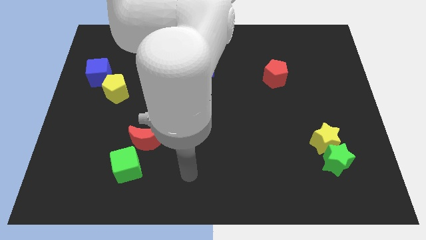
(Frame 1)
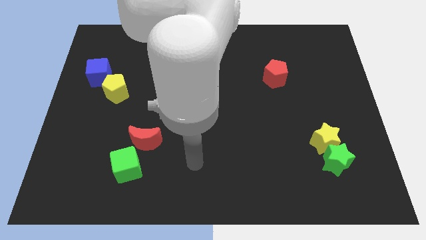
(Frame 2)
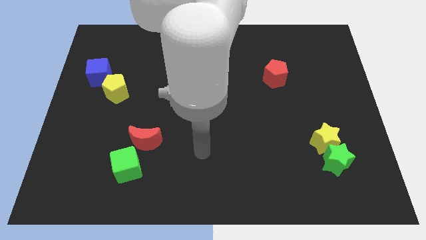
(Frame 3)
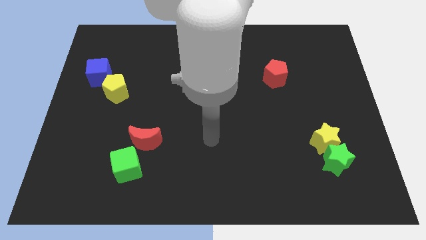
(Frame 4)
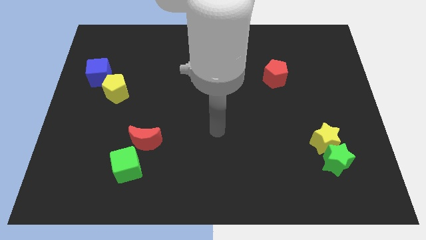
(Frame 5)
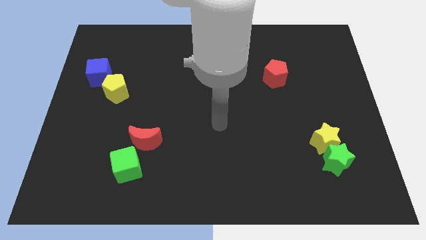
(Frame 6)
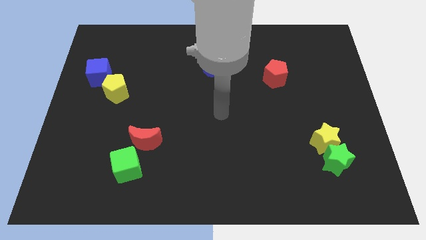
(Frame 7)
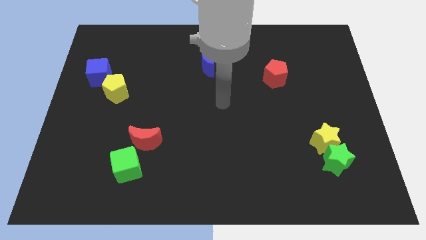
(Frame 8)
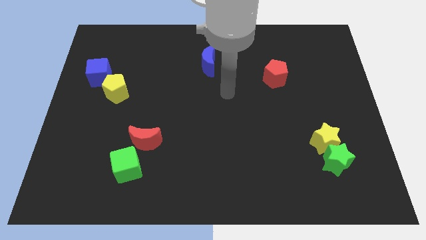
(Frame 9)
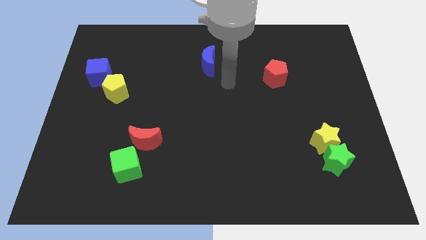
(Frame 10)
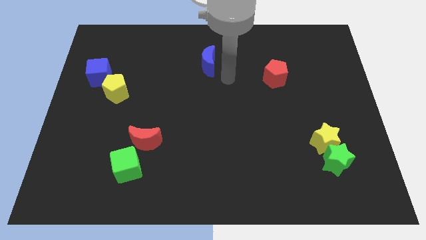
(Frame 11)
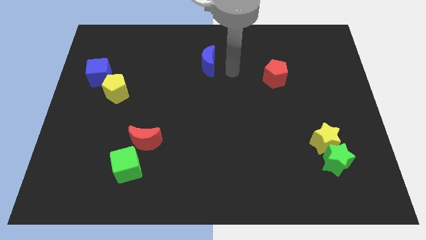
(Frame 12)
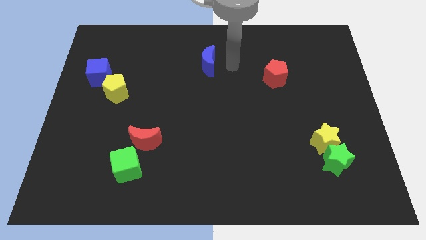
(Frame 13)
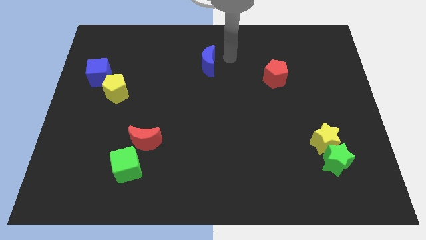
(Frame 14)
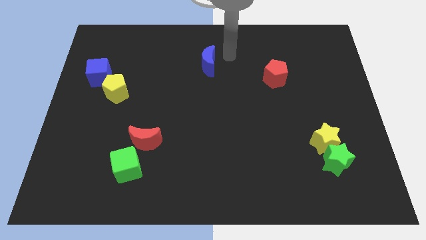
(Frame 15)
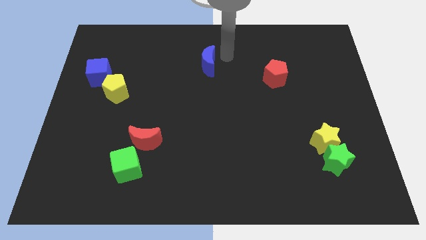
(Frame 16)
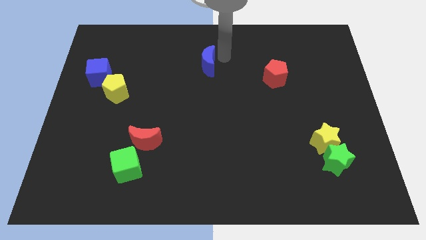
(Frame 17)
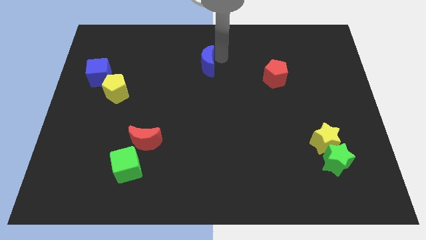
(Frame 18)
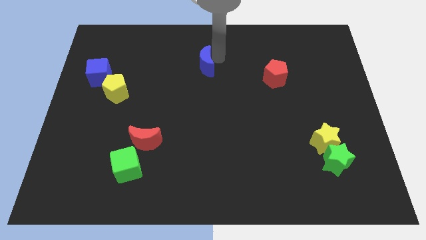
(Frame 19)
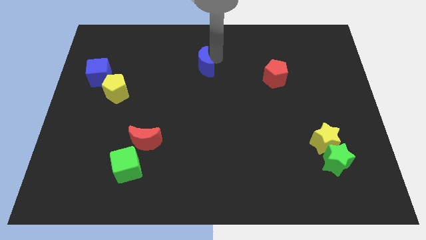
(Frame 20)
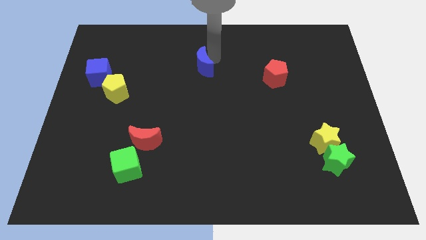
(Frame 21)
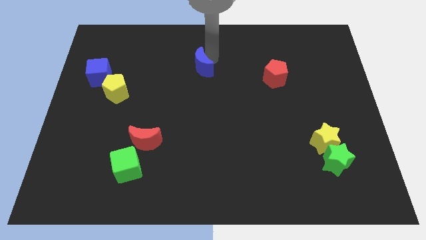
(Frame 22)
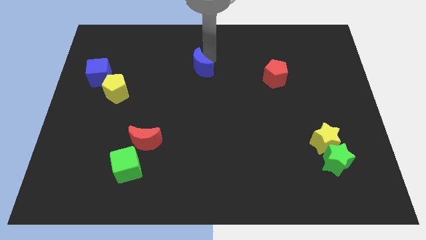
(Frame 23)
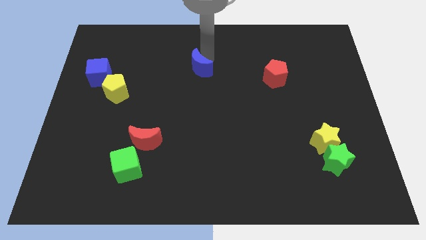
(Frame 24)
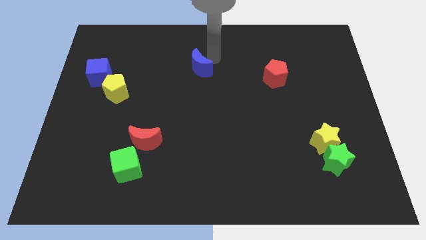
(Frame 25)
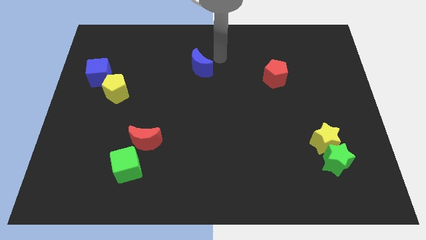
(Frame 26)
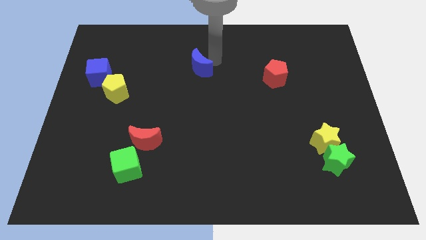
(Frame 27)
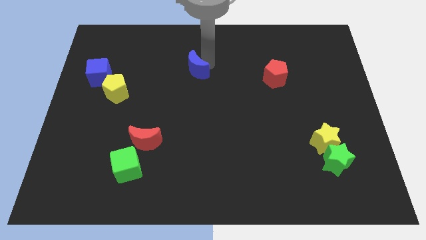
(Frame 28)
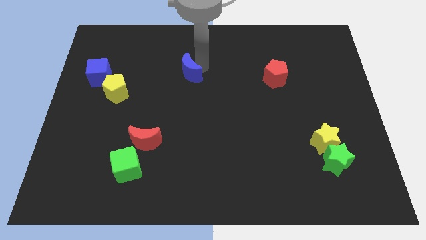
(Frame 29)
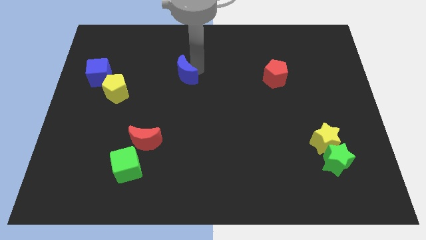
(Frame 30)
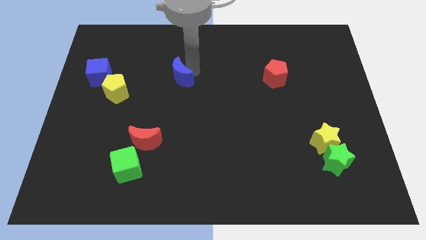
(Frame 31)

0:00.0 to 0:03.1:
slide the blue moon a bit downwards and then to the left

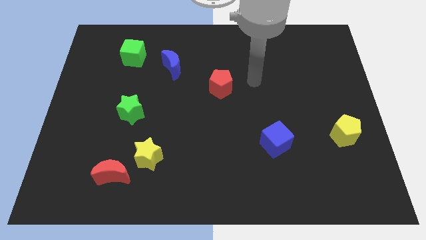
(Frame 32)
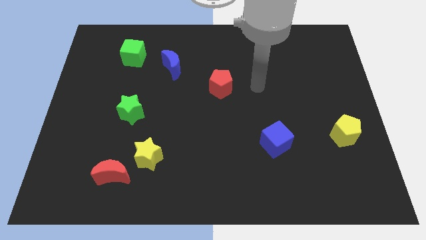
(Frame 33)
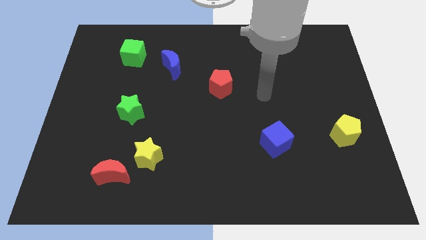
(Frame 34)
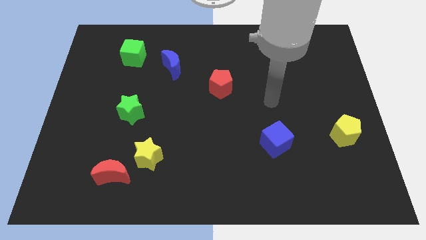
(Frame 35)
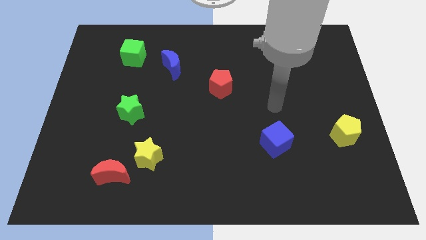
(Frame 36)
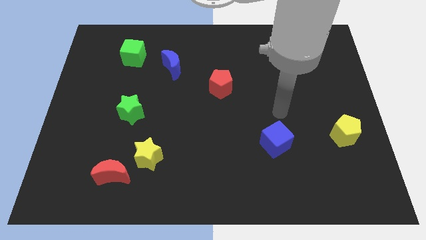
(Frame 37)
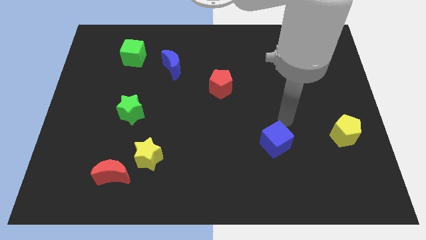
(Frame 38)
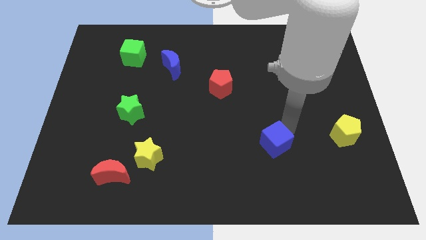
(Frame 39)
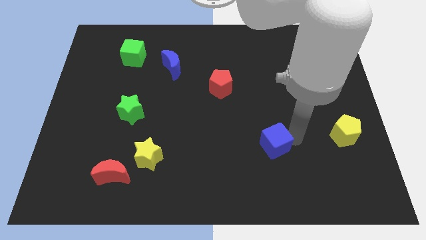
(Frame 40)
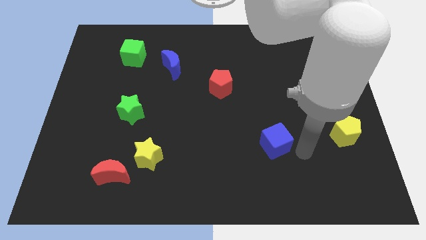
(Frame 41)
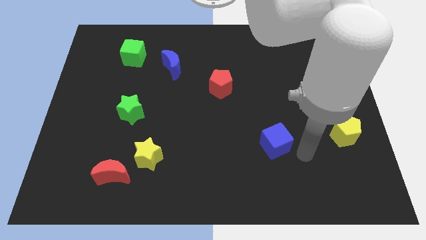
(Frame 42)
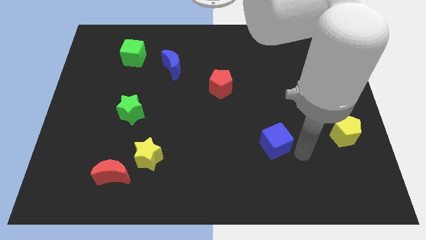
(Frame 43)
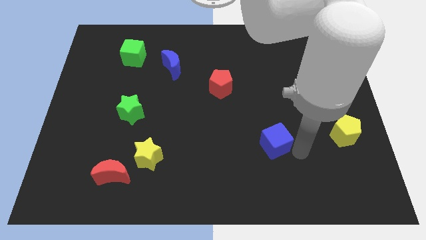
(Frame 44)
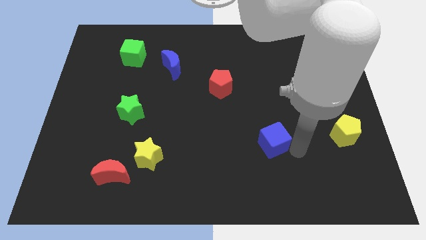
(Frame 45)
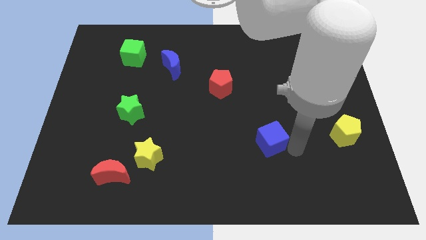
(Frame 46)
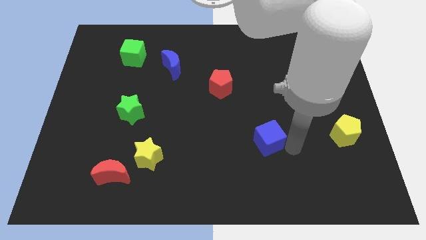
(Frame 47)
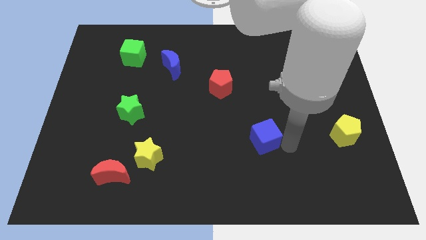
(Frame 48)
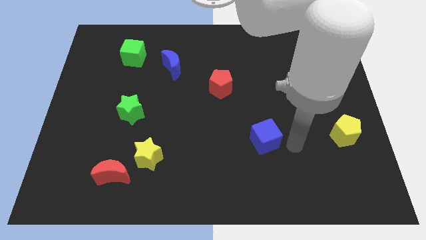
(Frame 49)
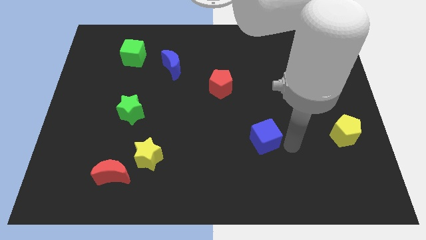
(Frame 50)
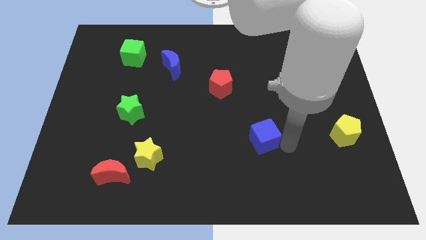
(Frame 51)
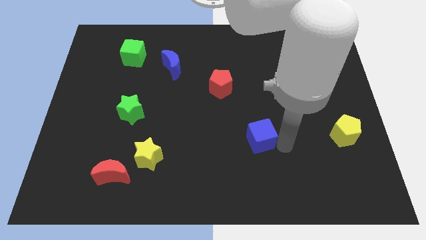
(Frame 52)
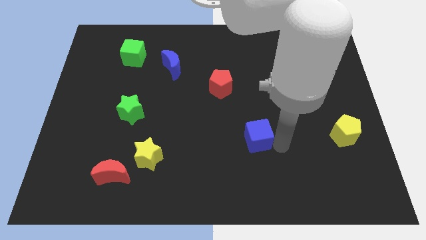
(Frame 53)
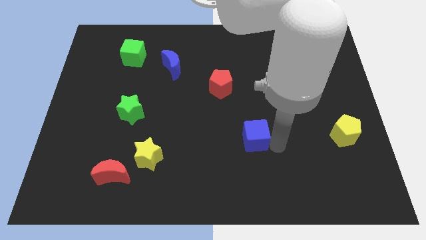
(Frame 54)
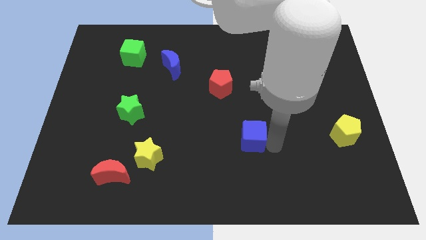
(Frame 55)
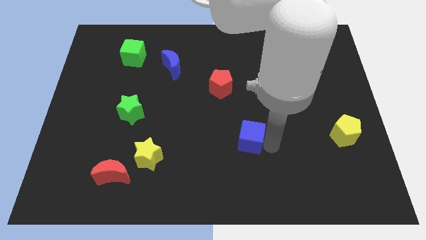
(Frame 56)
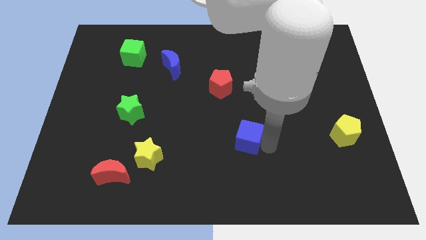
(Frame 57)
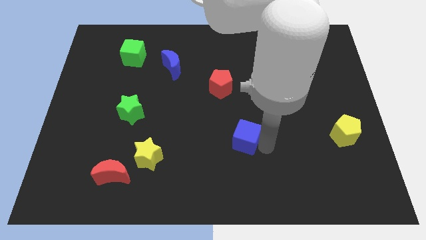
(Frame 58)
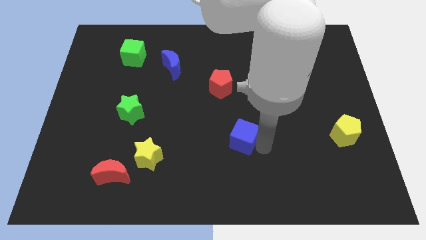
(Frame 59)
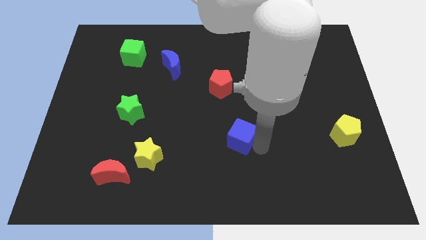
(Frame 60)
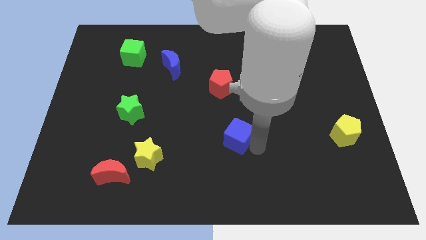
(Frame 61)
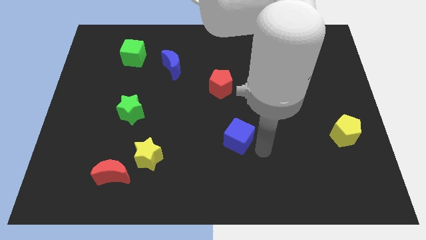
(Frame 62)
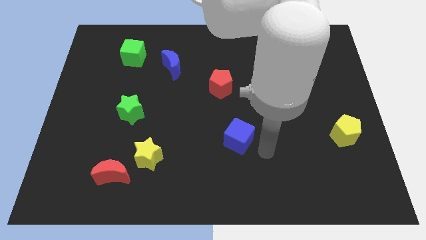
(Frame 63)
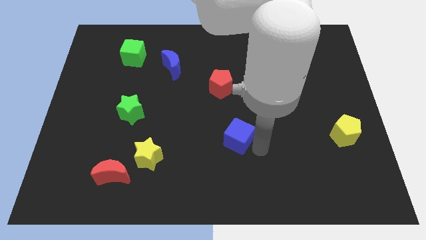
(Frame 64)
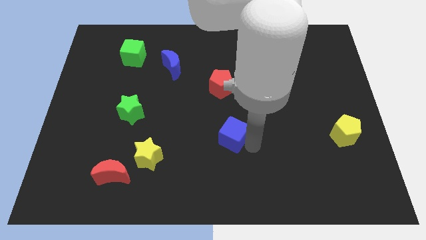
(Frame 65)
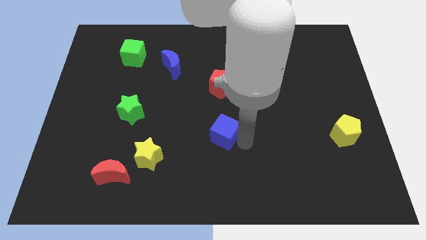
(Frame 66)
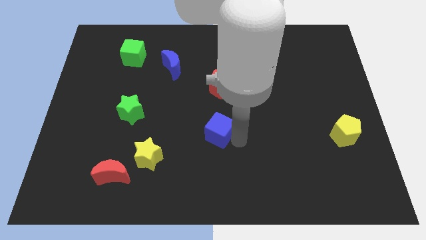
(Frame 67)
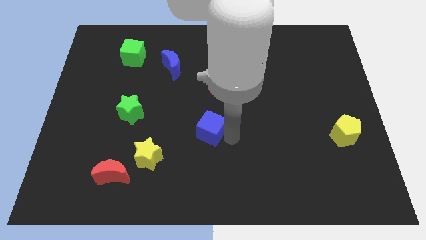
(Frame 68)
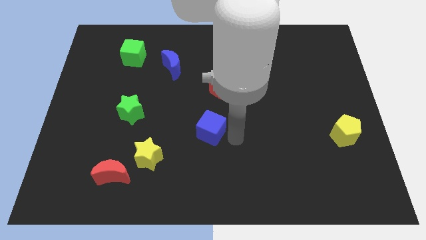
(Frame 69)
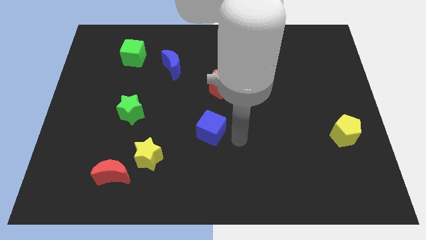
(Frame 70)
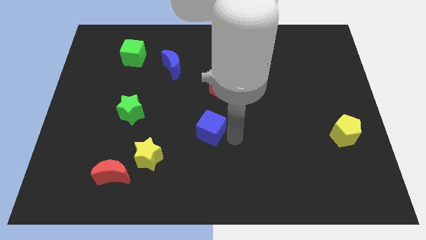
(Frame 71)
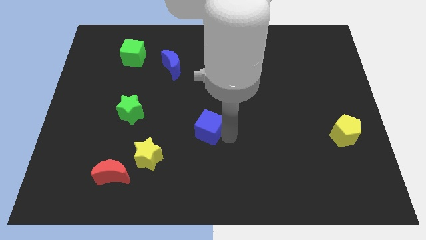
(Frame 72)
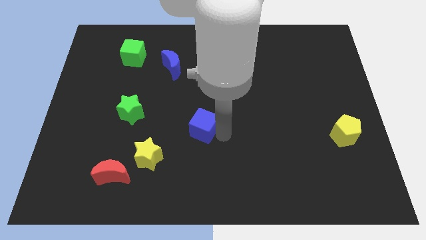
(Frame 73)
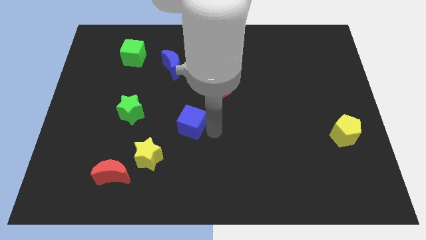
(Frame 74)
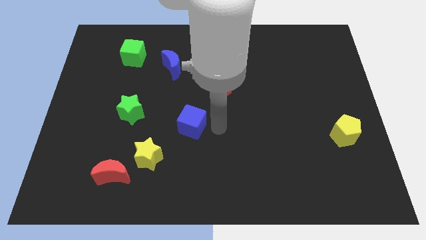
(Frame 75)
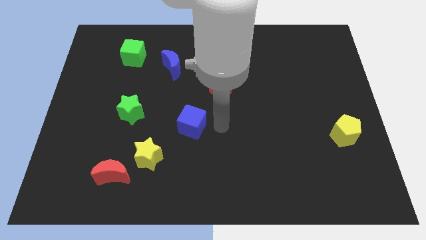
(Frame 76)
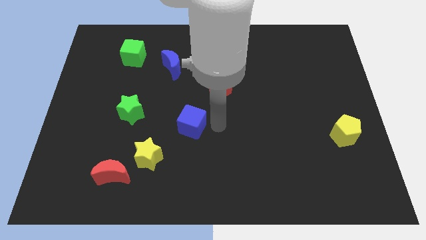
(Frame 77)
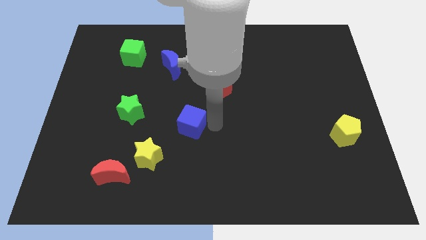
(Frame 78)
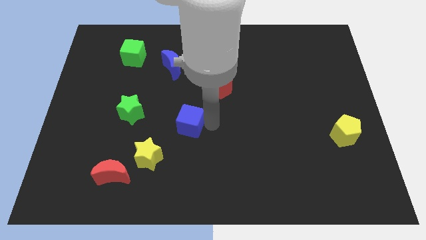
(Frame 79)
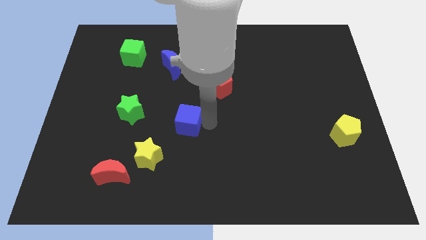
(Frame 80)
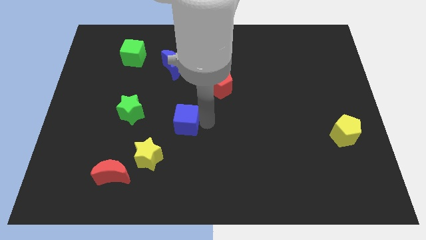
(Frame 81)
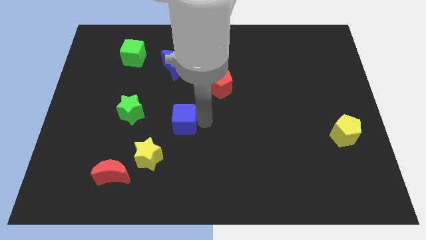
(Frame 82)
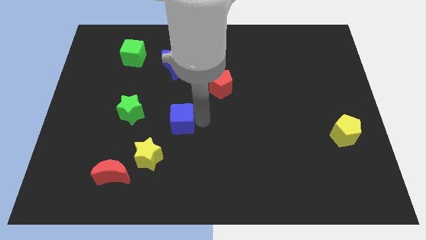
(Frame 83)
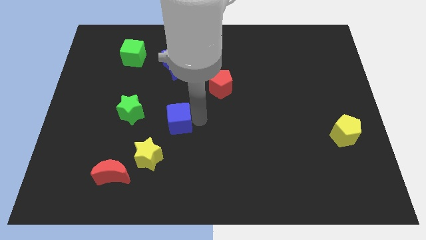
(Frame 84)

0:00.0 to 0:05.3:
move the blue cube to the left
